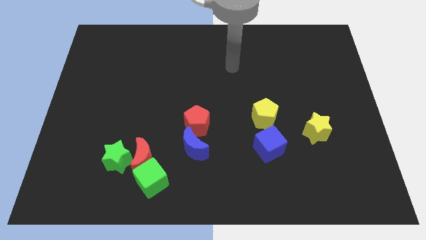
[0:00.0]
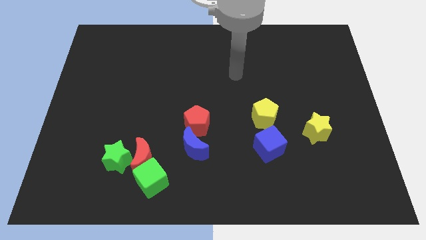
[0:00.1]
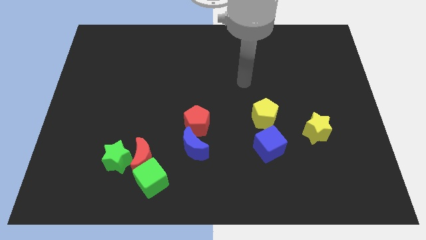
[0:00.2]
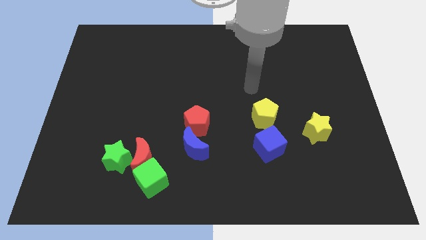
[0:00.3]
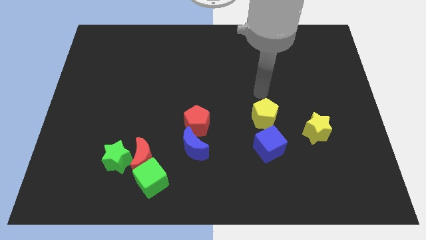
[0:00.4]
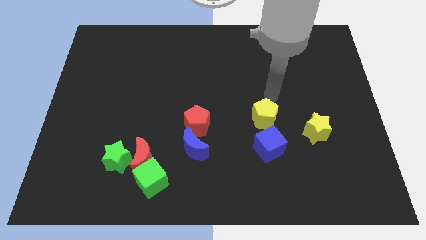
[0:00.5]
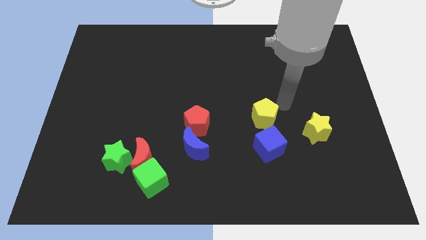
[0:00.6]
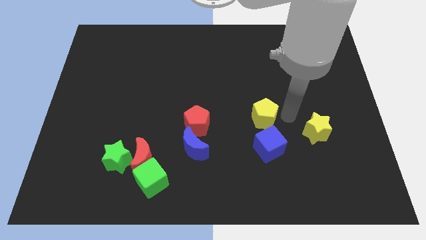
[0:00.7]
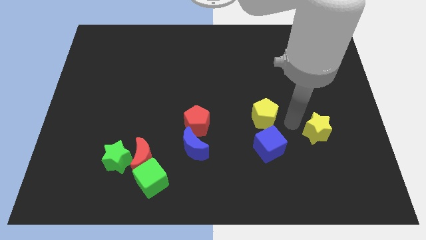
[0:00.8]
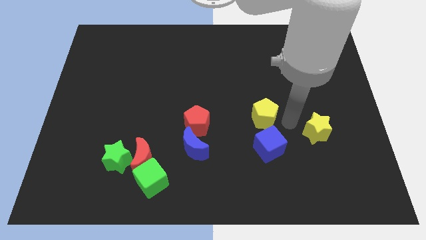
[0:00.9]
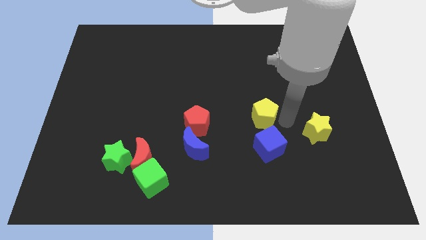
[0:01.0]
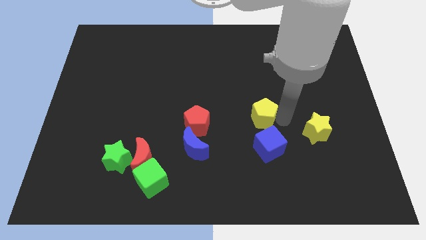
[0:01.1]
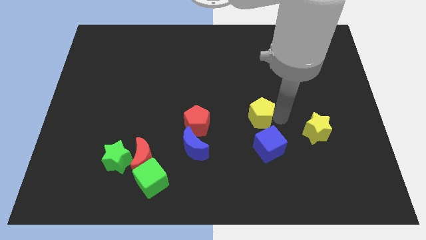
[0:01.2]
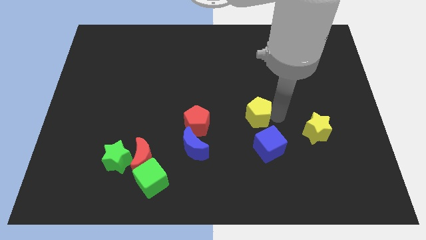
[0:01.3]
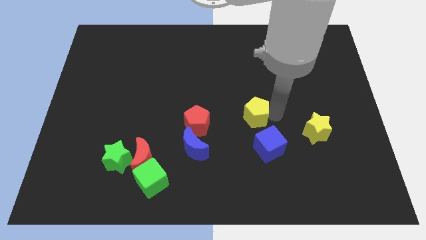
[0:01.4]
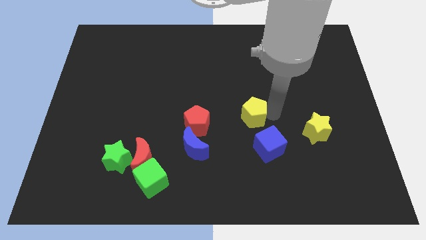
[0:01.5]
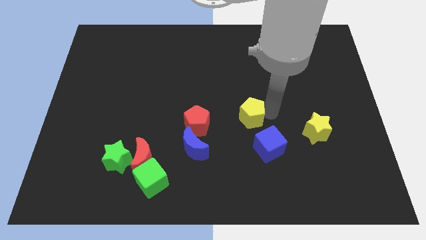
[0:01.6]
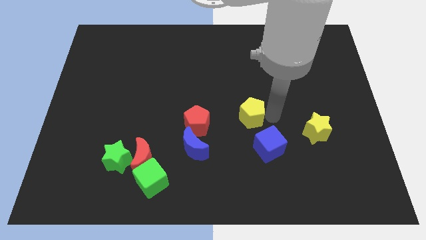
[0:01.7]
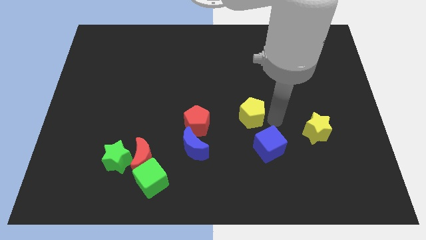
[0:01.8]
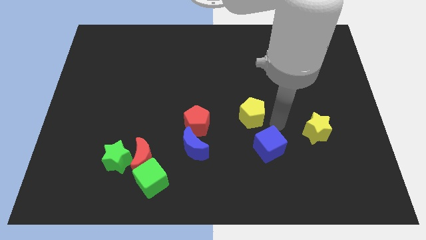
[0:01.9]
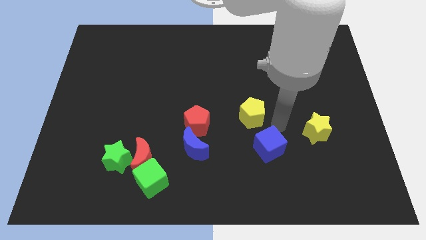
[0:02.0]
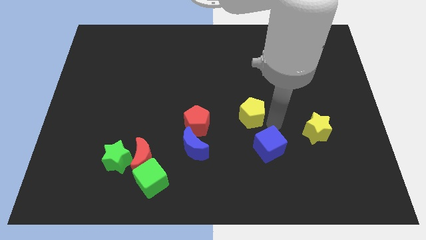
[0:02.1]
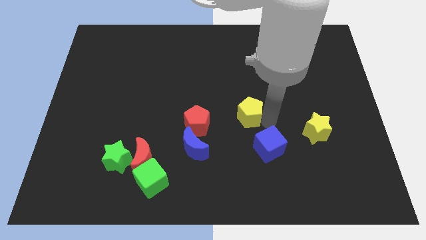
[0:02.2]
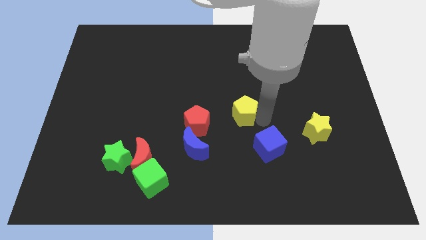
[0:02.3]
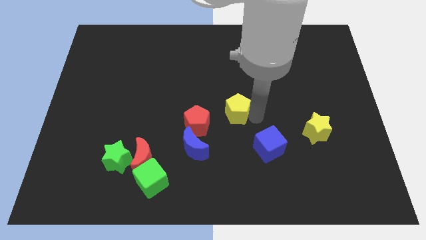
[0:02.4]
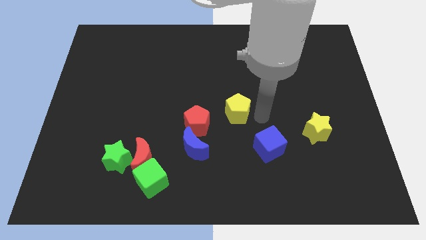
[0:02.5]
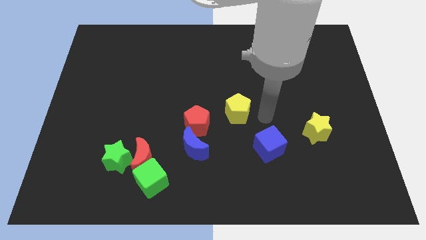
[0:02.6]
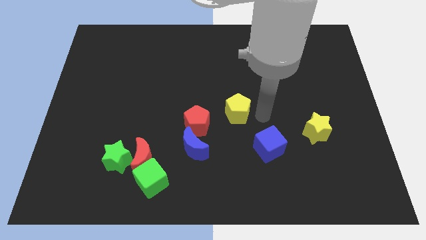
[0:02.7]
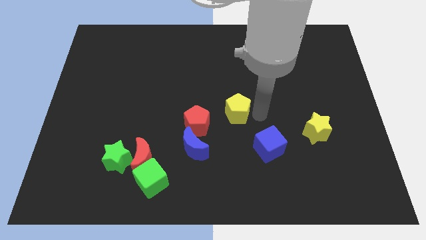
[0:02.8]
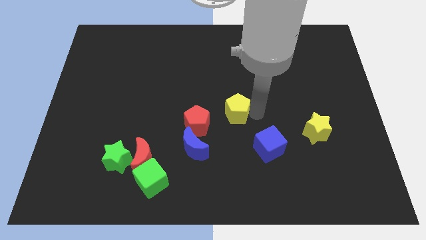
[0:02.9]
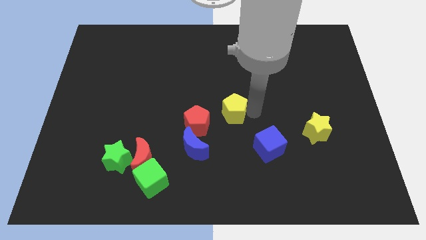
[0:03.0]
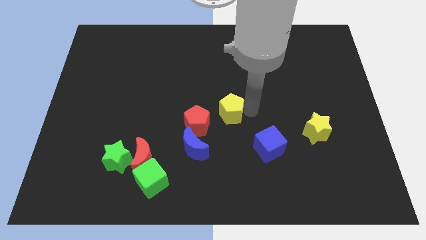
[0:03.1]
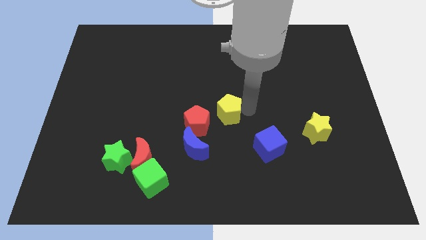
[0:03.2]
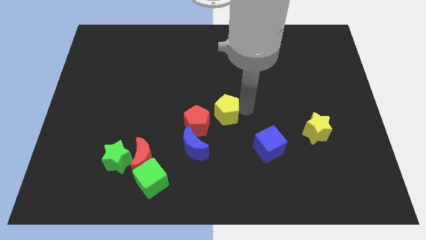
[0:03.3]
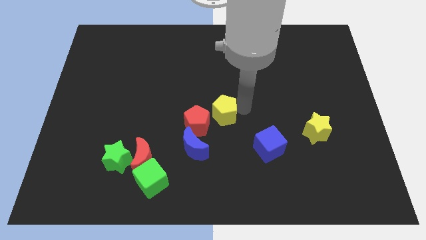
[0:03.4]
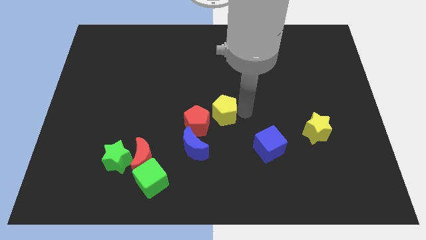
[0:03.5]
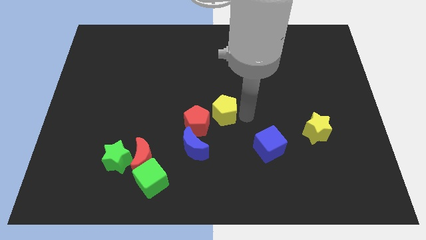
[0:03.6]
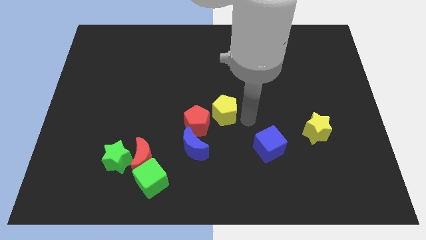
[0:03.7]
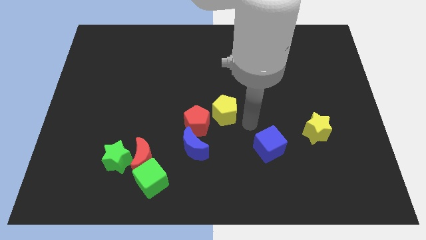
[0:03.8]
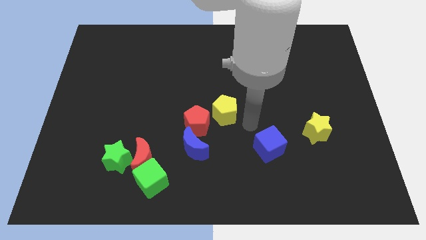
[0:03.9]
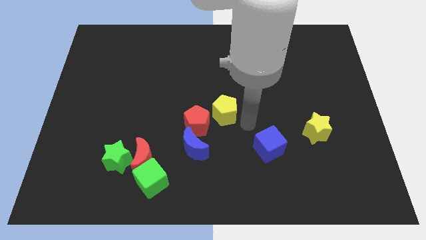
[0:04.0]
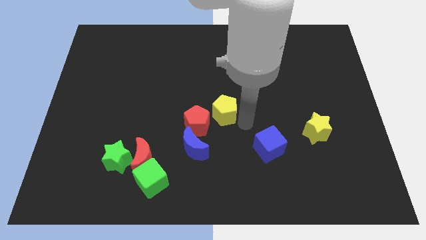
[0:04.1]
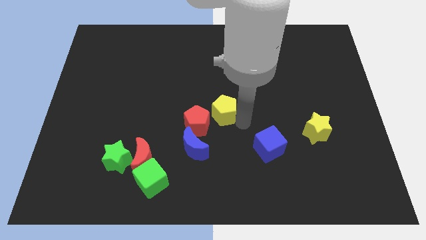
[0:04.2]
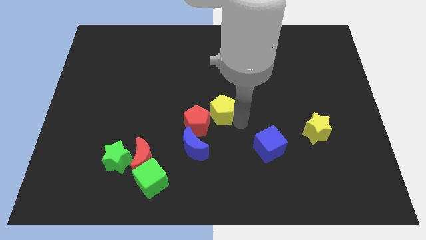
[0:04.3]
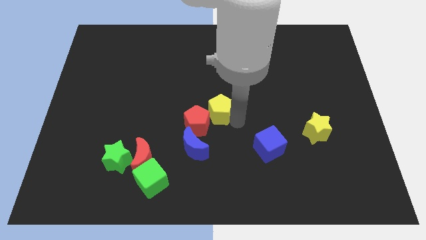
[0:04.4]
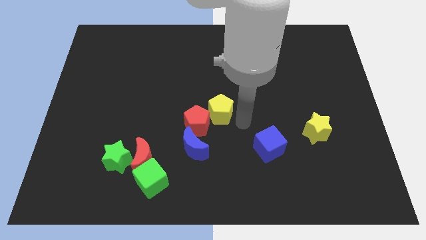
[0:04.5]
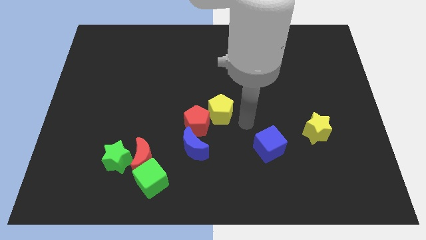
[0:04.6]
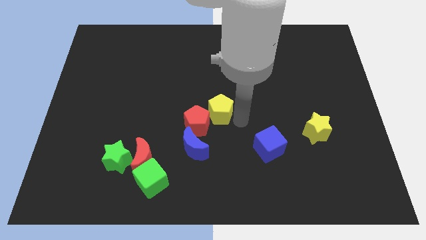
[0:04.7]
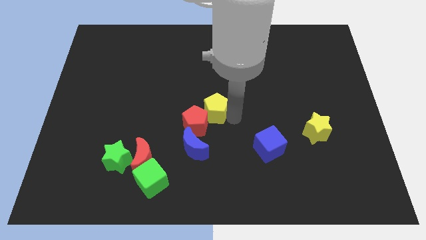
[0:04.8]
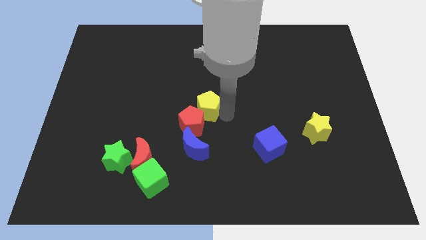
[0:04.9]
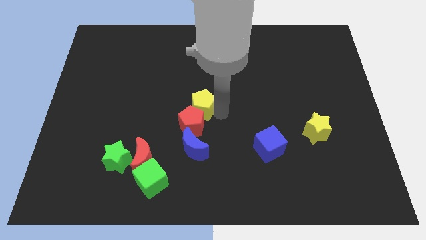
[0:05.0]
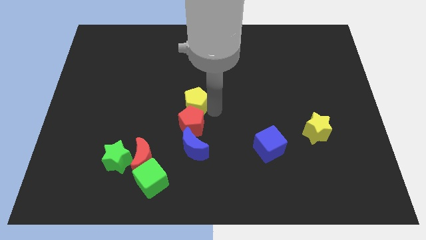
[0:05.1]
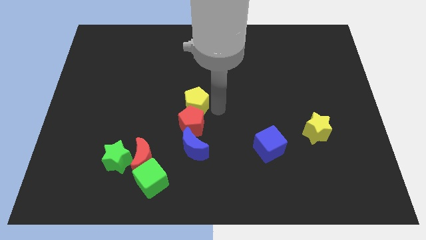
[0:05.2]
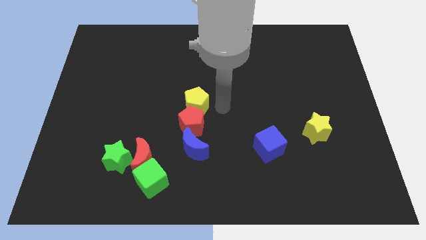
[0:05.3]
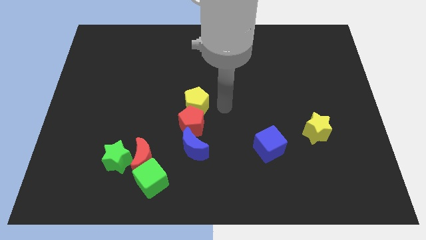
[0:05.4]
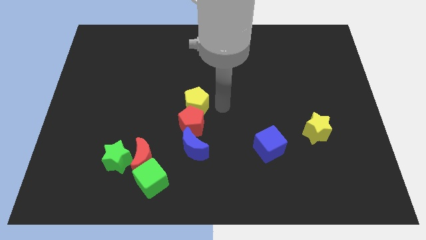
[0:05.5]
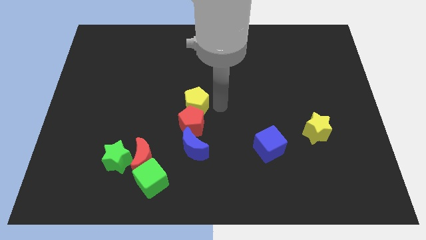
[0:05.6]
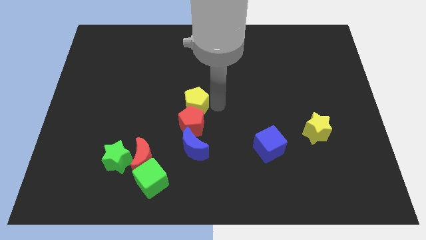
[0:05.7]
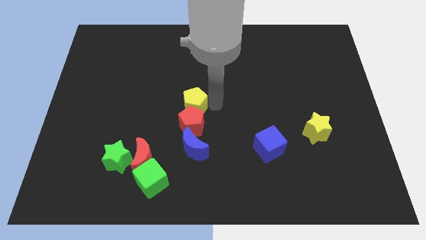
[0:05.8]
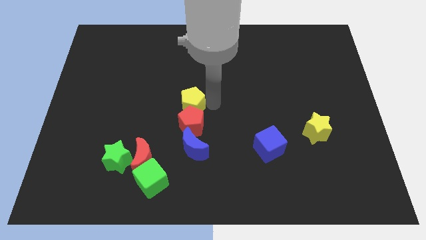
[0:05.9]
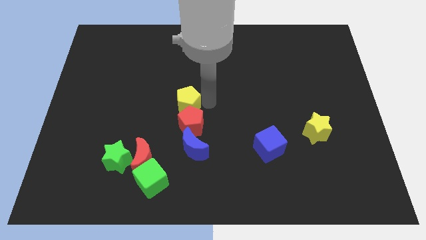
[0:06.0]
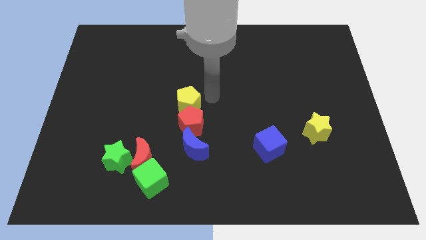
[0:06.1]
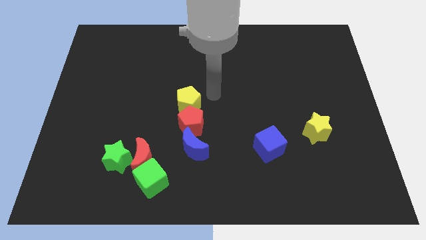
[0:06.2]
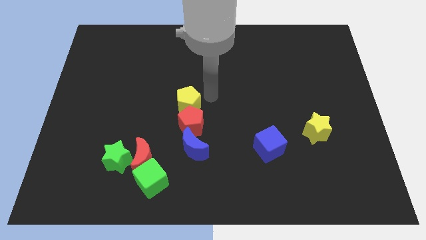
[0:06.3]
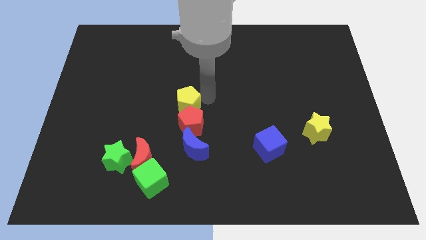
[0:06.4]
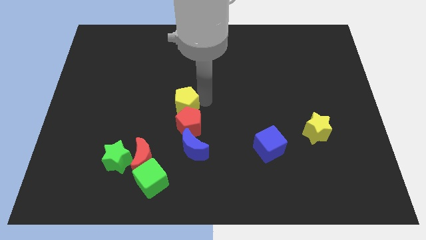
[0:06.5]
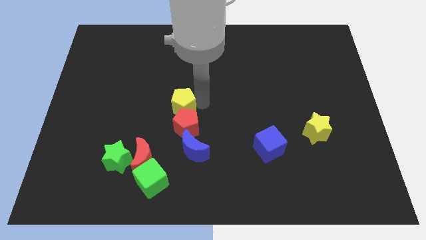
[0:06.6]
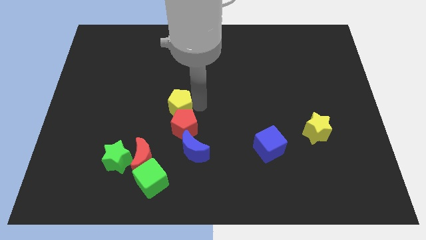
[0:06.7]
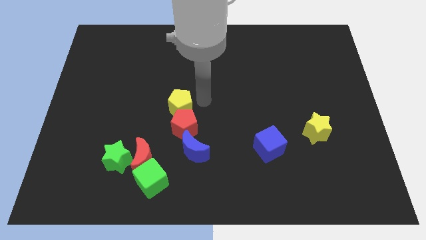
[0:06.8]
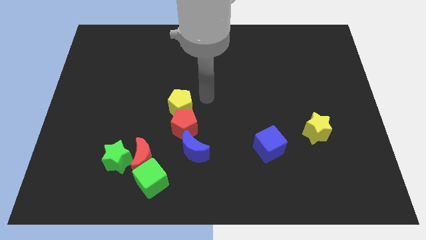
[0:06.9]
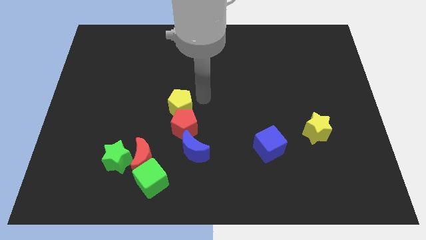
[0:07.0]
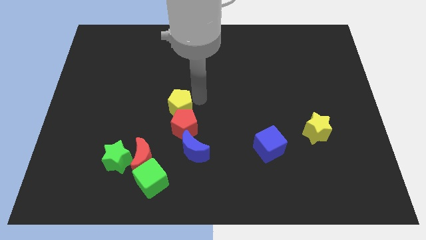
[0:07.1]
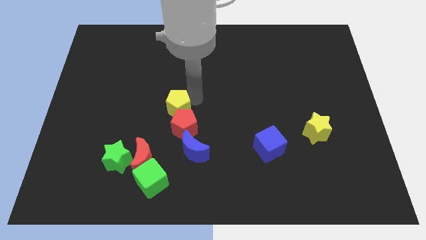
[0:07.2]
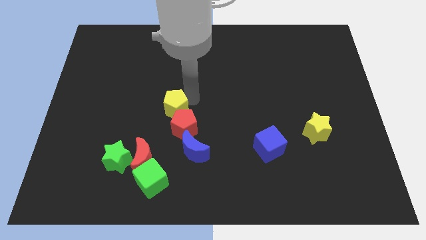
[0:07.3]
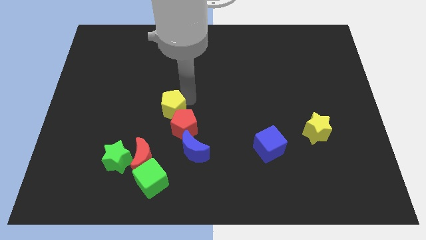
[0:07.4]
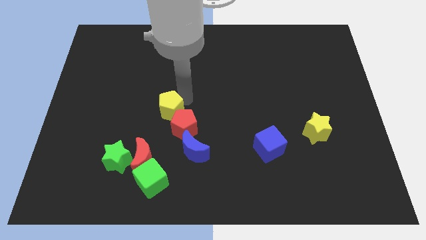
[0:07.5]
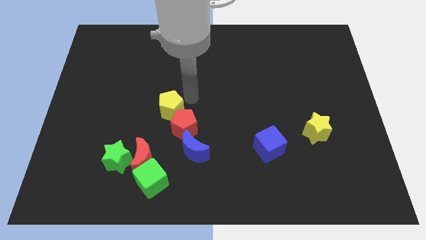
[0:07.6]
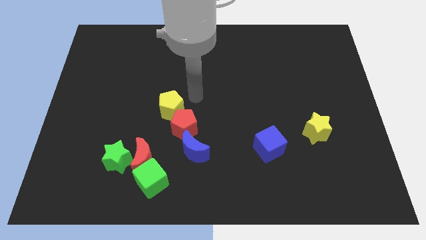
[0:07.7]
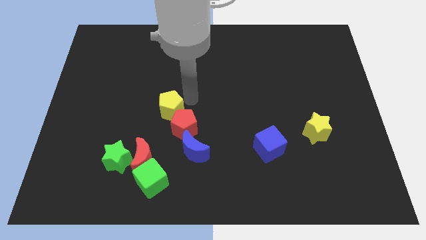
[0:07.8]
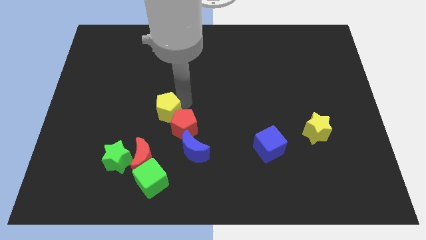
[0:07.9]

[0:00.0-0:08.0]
push the yellow pentagon to the top side of the red moon
